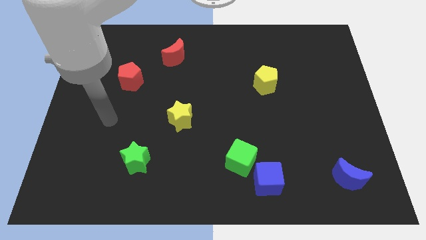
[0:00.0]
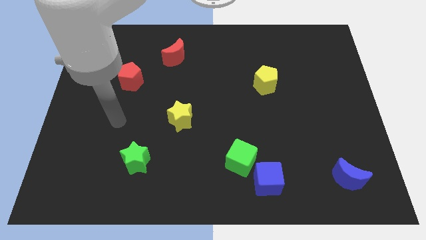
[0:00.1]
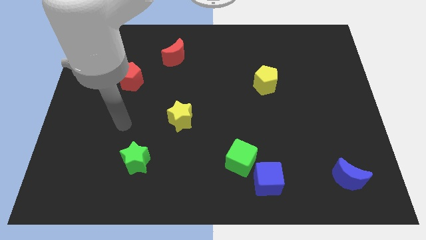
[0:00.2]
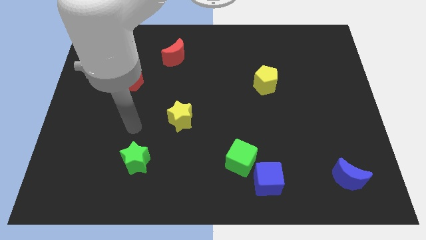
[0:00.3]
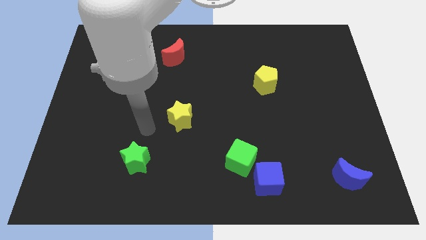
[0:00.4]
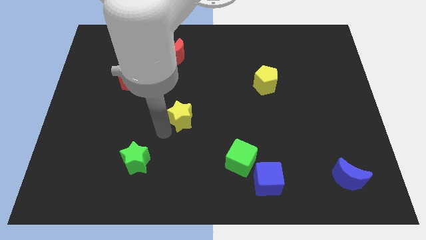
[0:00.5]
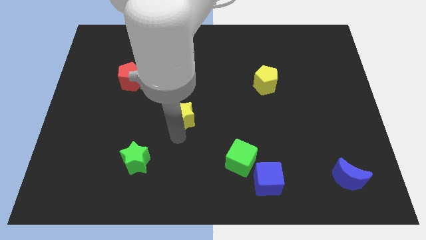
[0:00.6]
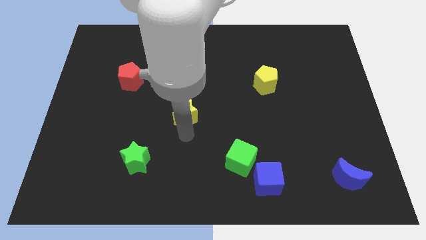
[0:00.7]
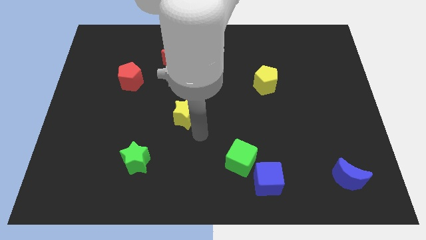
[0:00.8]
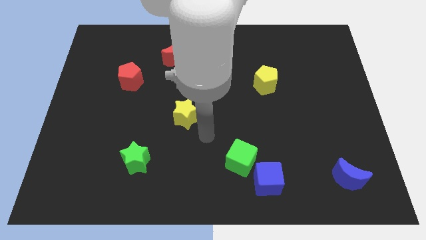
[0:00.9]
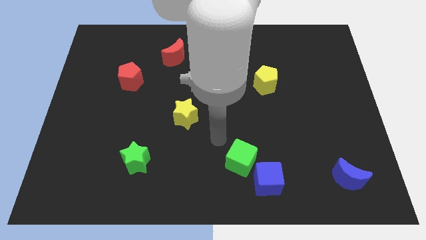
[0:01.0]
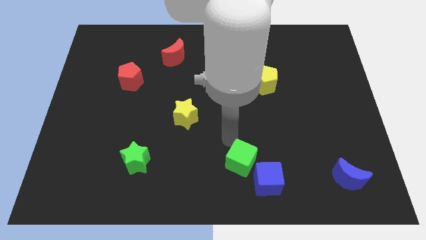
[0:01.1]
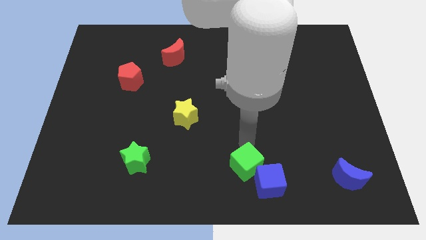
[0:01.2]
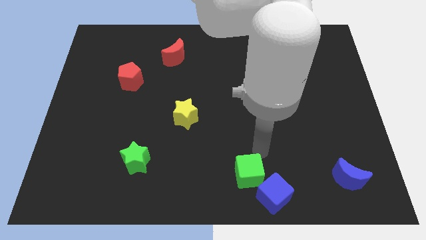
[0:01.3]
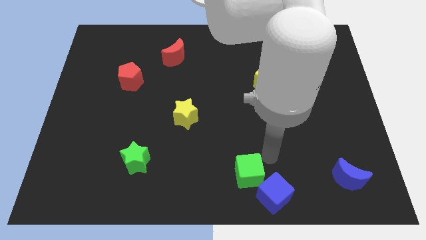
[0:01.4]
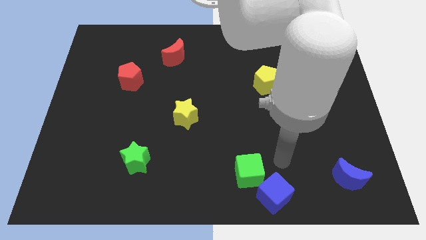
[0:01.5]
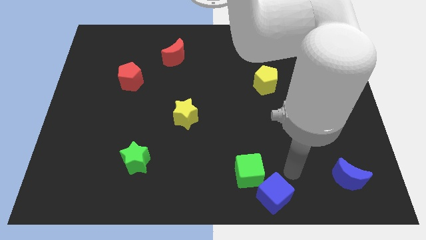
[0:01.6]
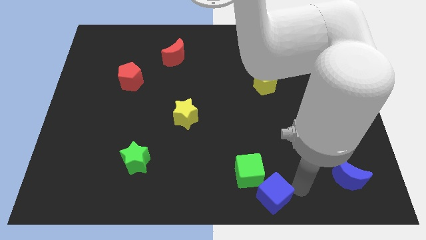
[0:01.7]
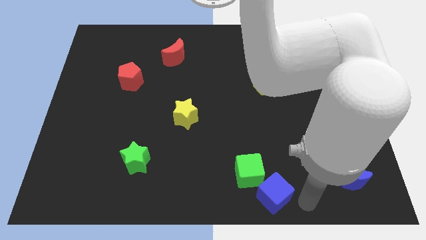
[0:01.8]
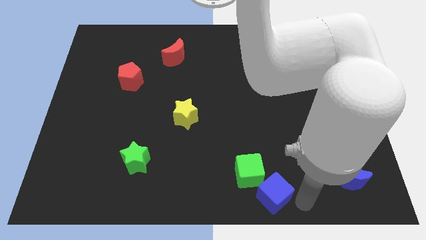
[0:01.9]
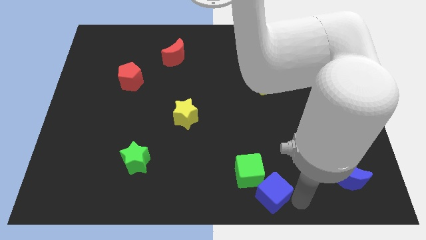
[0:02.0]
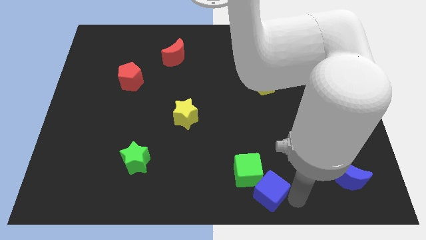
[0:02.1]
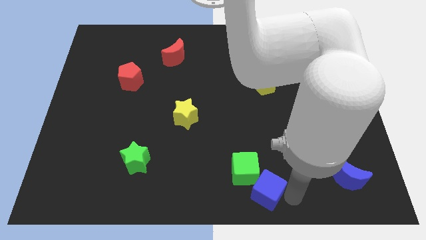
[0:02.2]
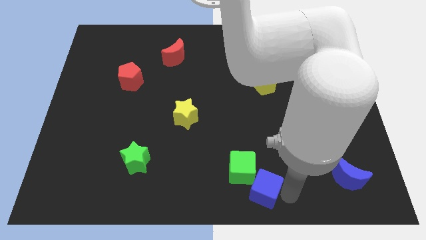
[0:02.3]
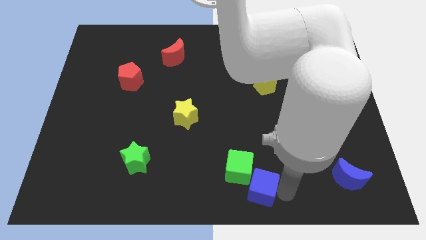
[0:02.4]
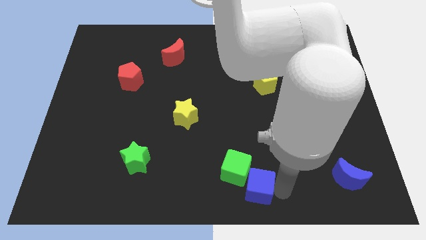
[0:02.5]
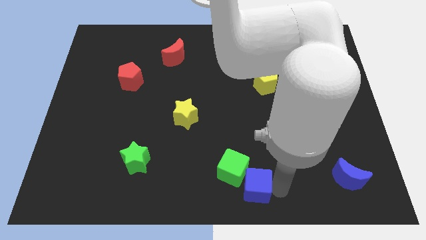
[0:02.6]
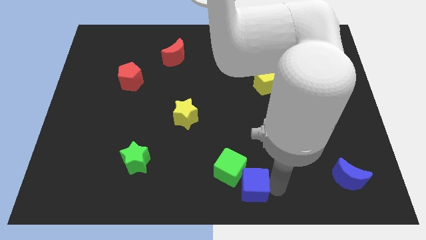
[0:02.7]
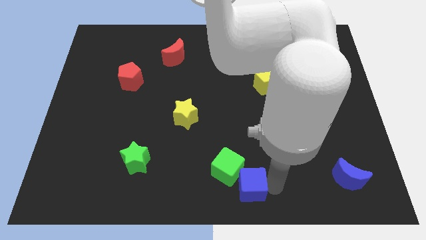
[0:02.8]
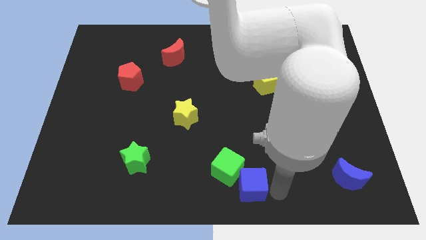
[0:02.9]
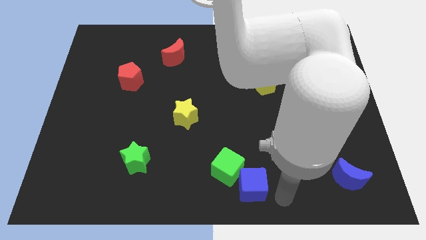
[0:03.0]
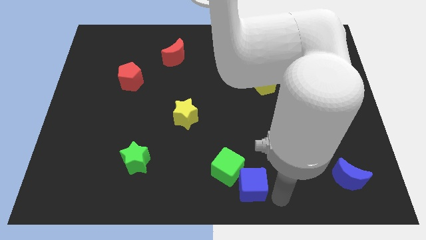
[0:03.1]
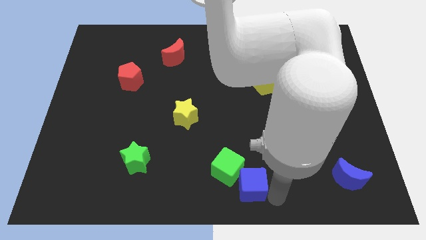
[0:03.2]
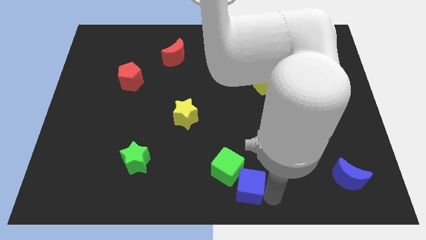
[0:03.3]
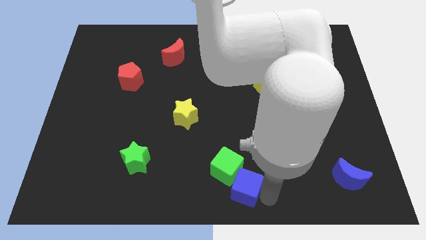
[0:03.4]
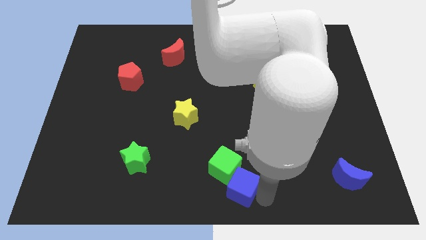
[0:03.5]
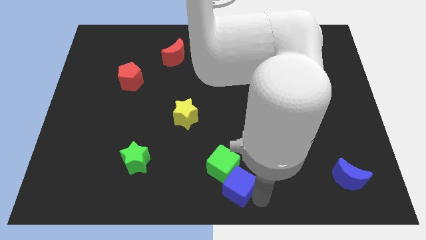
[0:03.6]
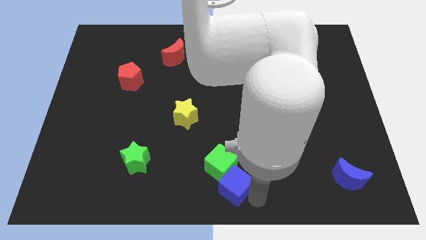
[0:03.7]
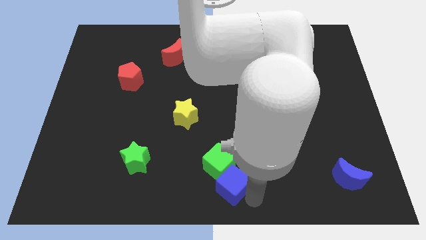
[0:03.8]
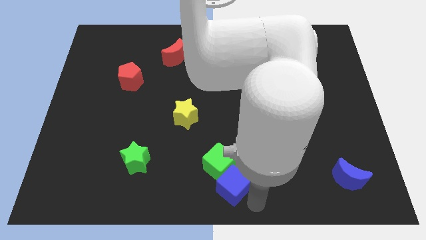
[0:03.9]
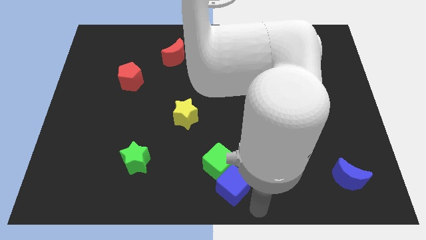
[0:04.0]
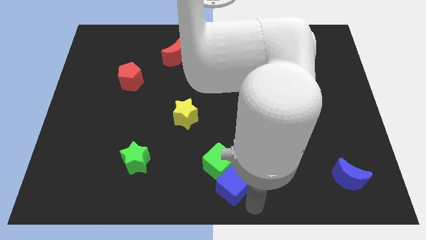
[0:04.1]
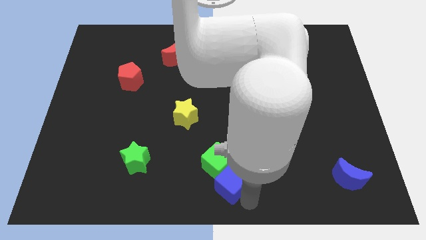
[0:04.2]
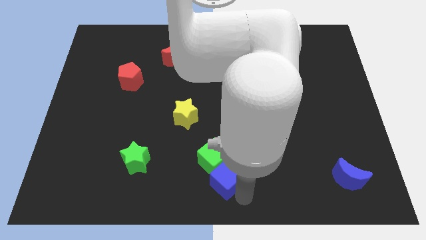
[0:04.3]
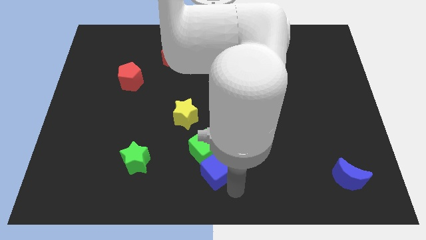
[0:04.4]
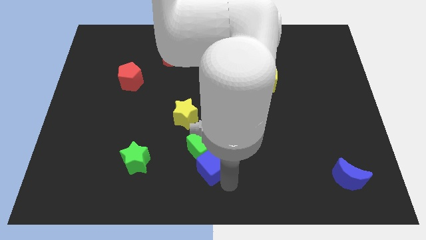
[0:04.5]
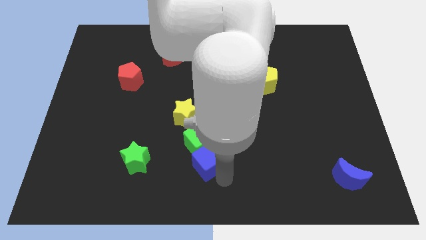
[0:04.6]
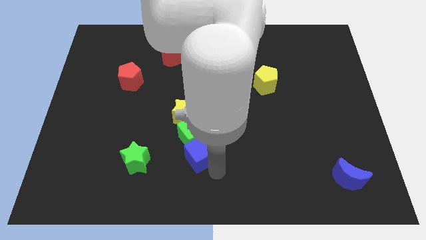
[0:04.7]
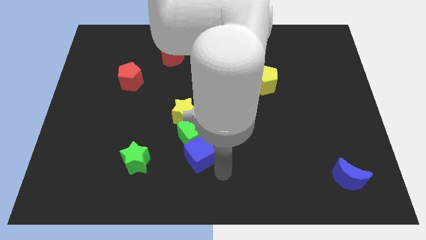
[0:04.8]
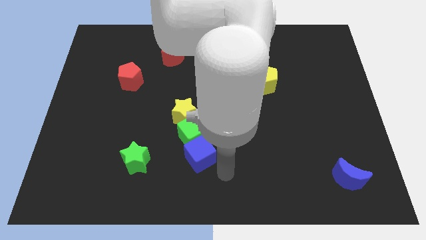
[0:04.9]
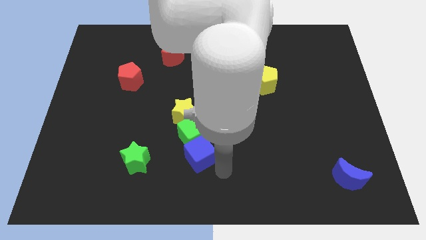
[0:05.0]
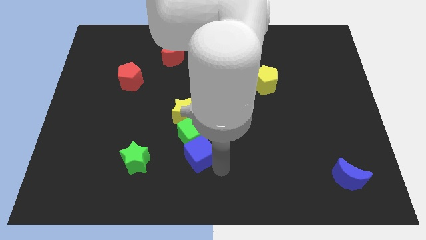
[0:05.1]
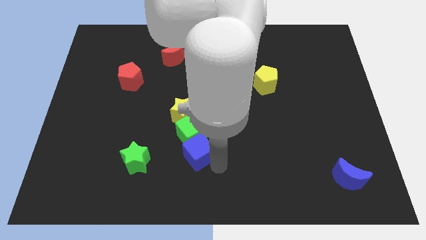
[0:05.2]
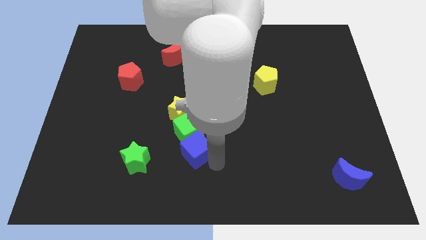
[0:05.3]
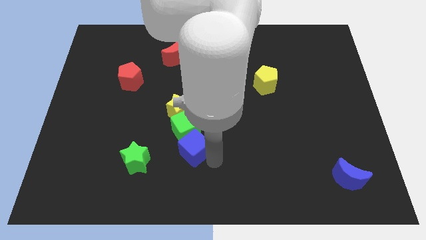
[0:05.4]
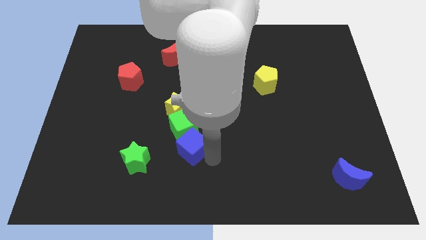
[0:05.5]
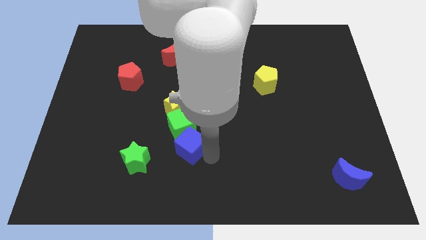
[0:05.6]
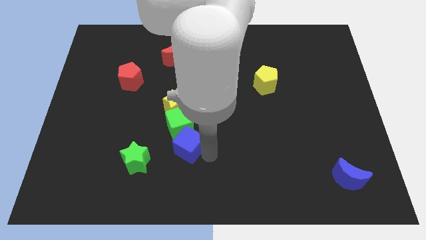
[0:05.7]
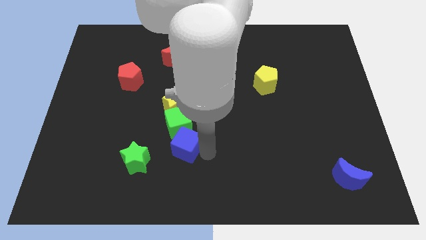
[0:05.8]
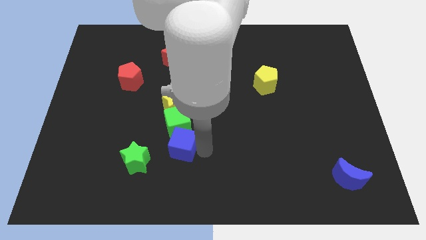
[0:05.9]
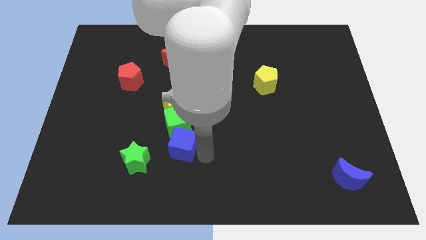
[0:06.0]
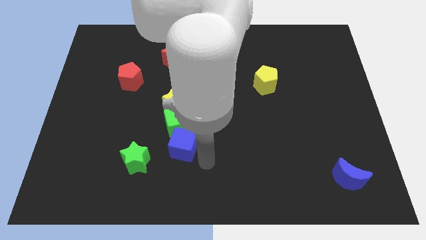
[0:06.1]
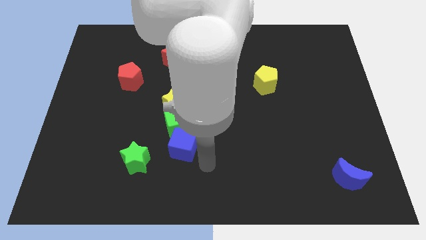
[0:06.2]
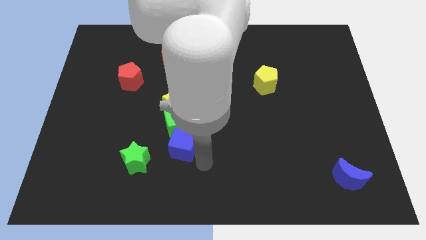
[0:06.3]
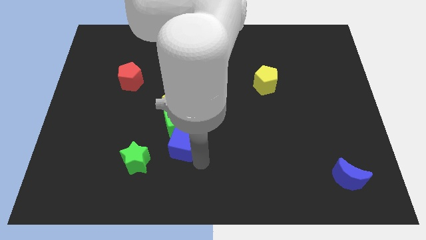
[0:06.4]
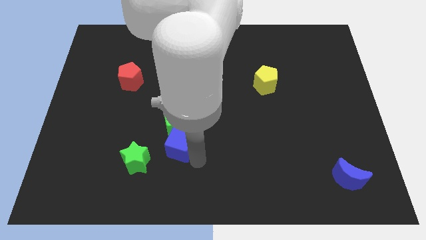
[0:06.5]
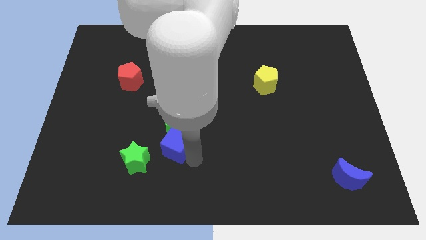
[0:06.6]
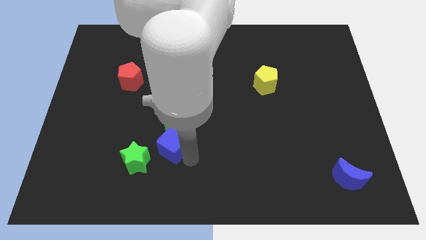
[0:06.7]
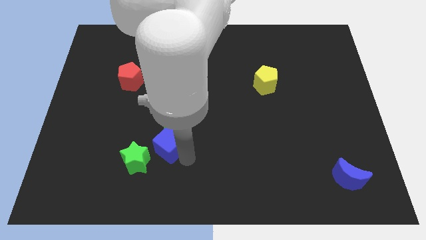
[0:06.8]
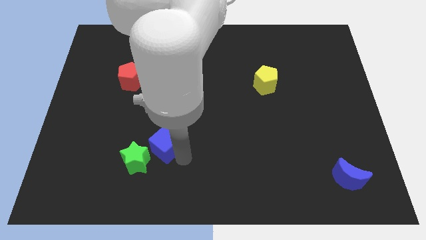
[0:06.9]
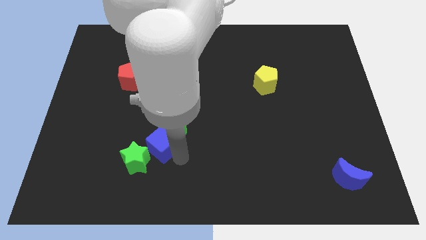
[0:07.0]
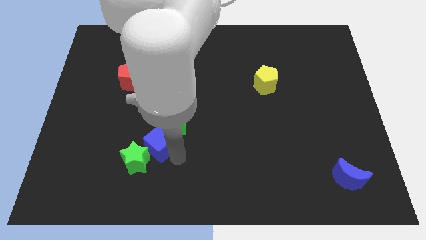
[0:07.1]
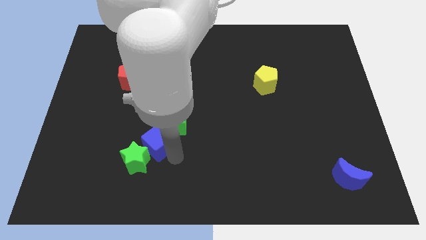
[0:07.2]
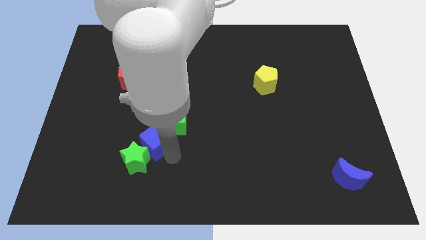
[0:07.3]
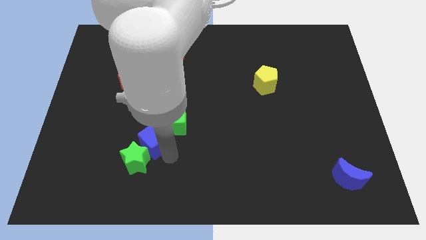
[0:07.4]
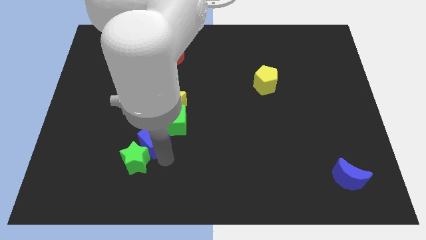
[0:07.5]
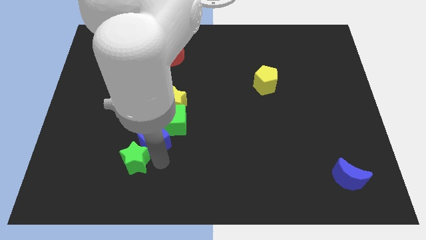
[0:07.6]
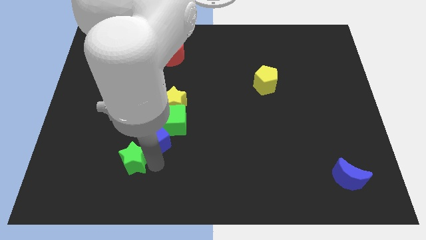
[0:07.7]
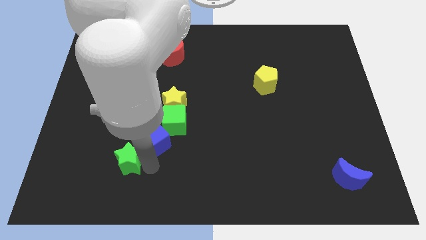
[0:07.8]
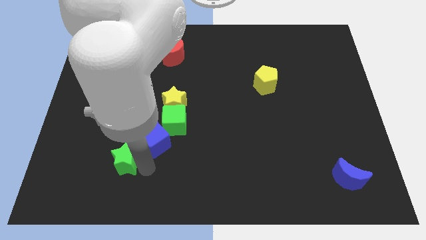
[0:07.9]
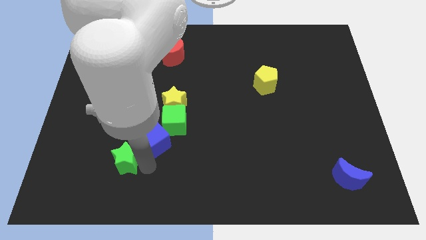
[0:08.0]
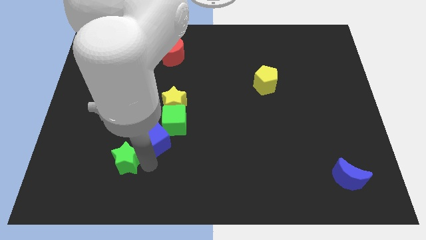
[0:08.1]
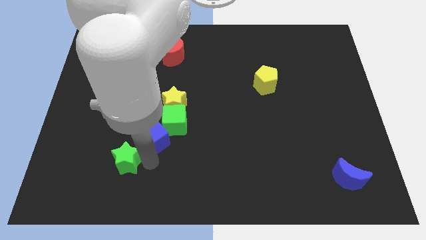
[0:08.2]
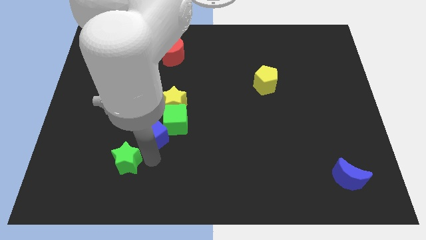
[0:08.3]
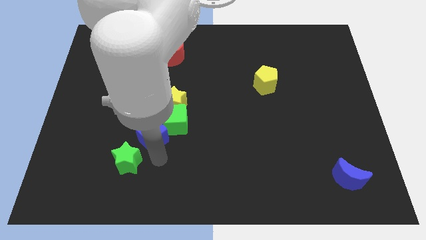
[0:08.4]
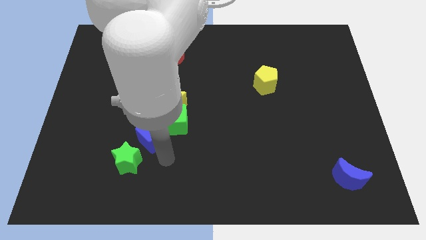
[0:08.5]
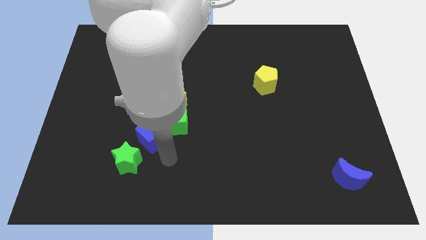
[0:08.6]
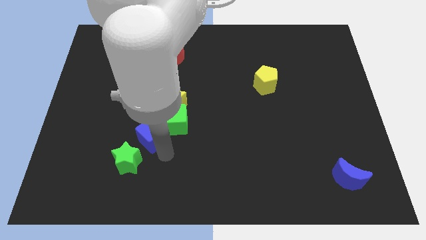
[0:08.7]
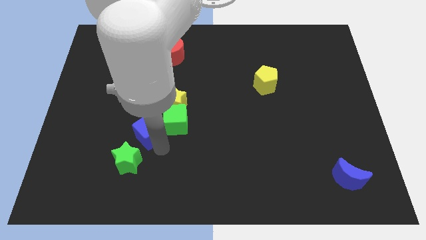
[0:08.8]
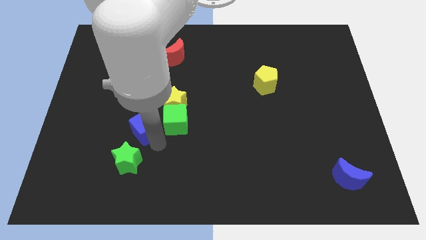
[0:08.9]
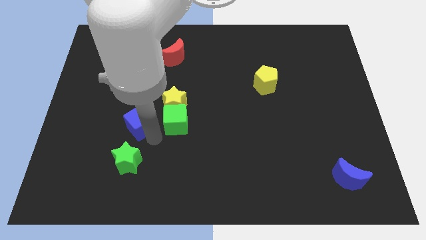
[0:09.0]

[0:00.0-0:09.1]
put the blue cube to the bottom side of the red pentagon
